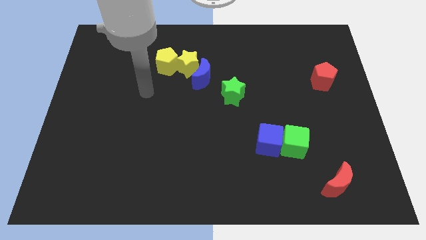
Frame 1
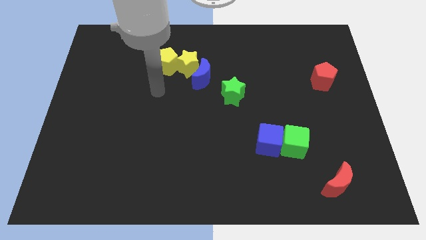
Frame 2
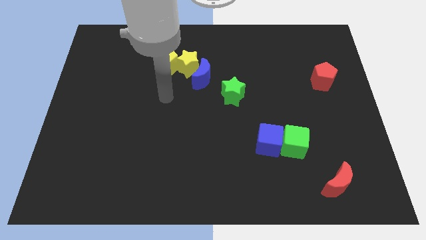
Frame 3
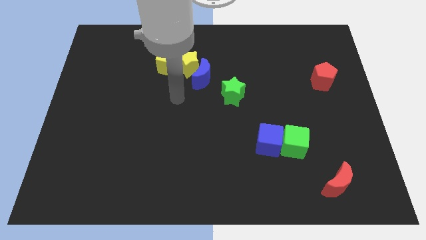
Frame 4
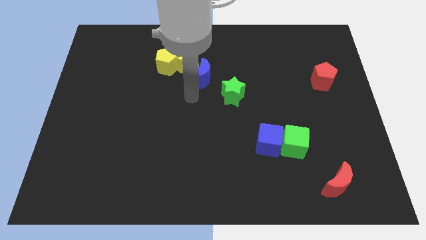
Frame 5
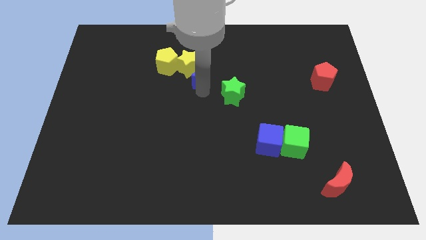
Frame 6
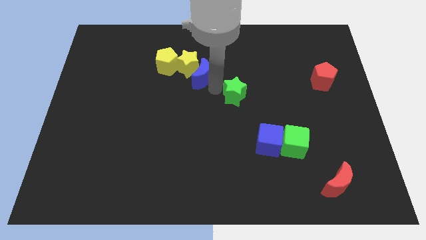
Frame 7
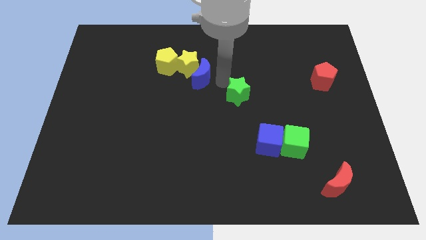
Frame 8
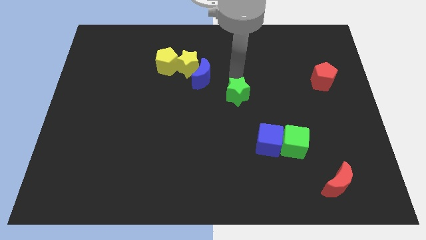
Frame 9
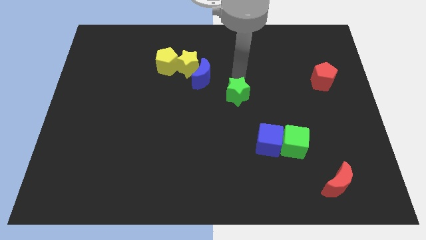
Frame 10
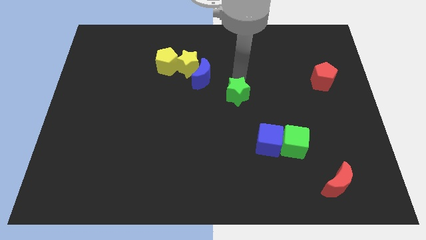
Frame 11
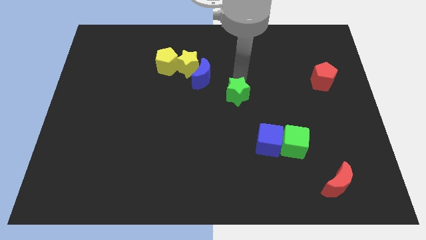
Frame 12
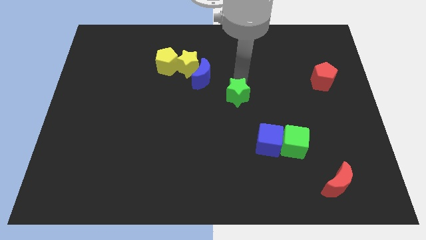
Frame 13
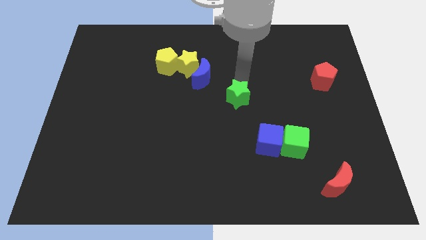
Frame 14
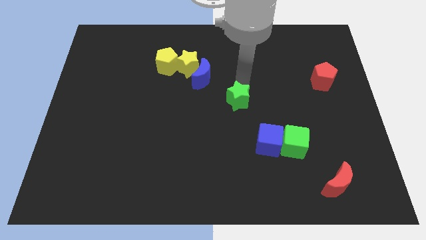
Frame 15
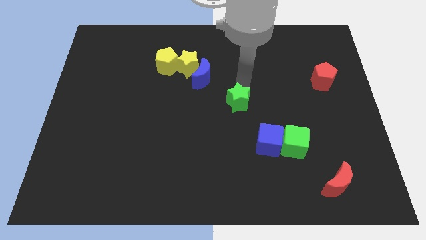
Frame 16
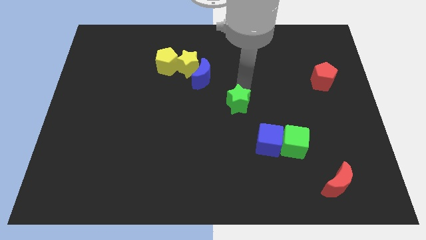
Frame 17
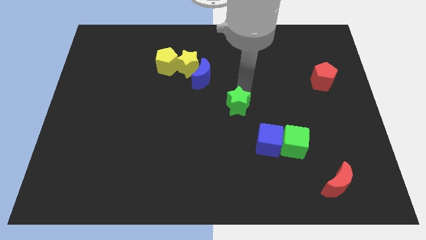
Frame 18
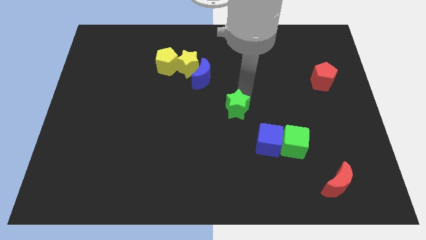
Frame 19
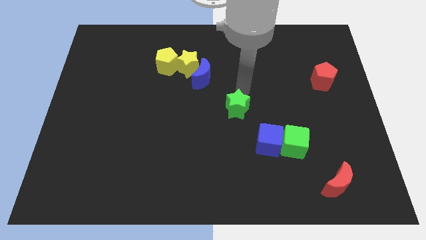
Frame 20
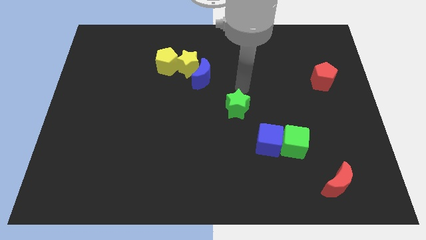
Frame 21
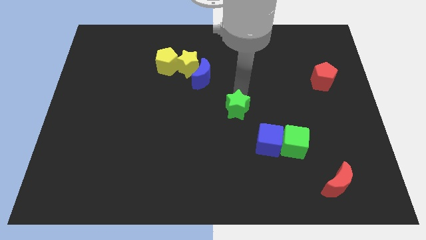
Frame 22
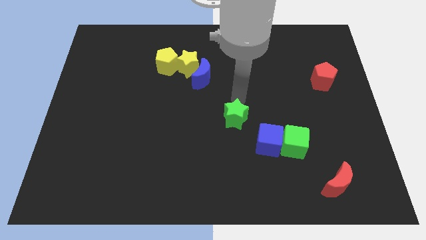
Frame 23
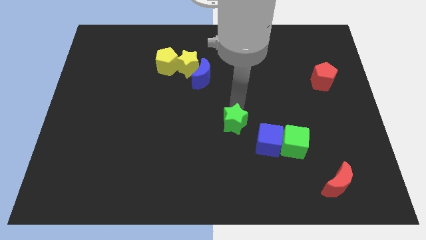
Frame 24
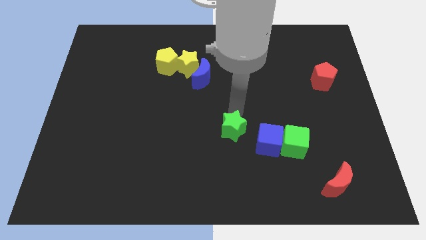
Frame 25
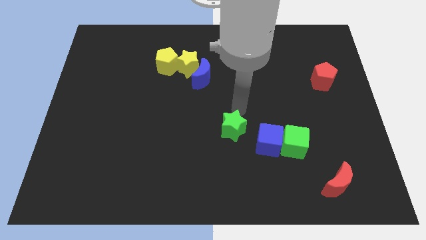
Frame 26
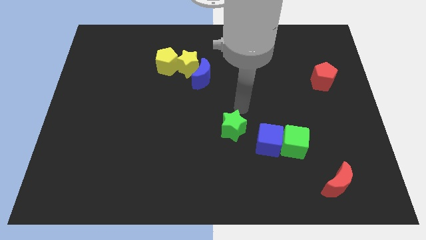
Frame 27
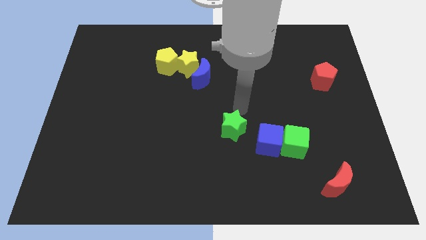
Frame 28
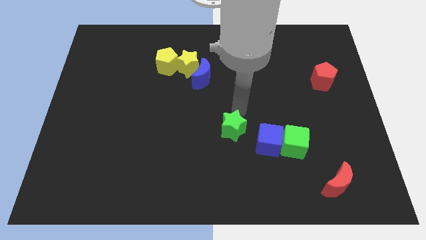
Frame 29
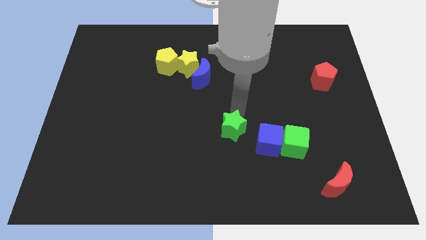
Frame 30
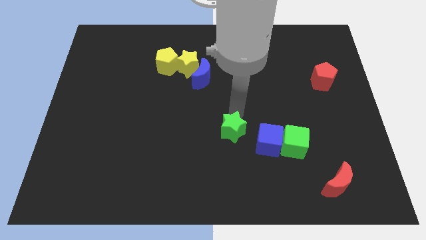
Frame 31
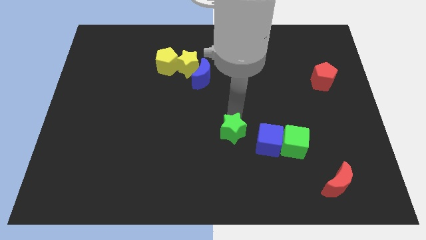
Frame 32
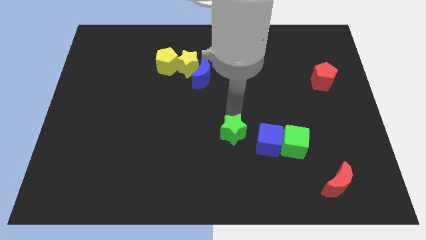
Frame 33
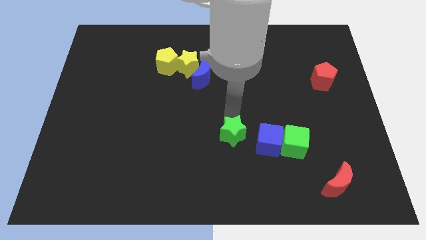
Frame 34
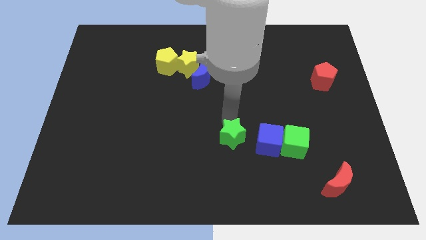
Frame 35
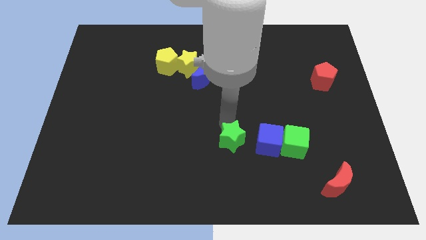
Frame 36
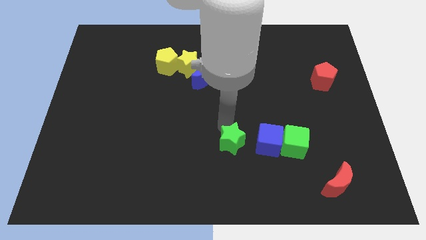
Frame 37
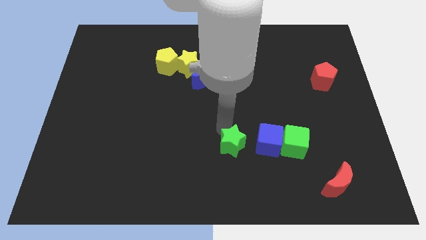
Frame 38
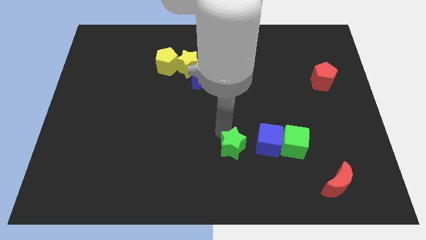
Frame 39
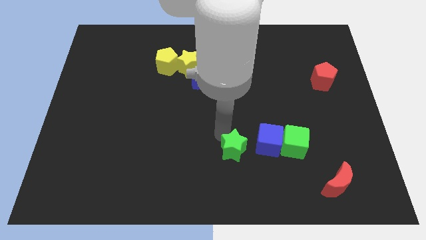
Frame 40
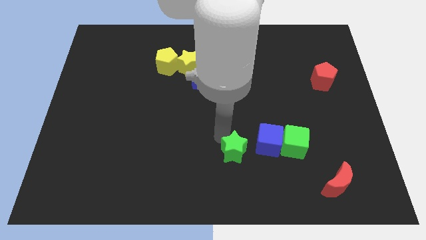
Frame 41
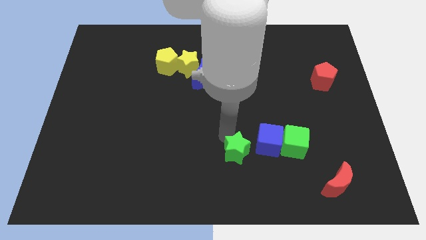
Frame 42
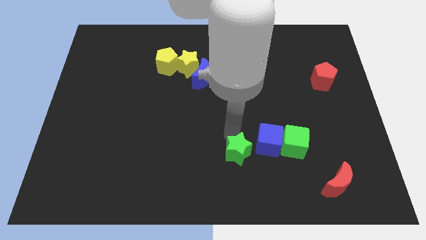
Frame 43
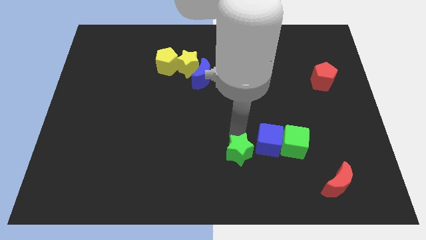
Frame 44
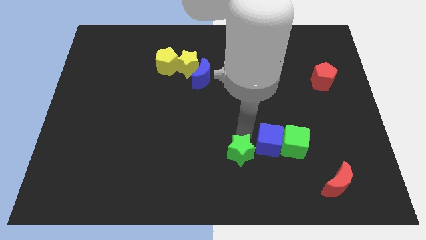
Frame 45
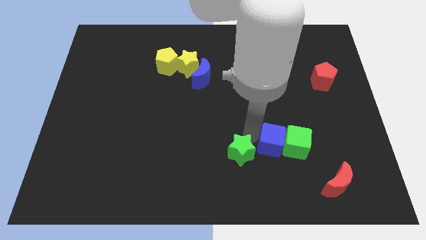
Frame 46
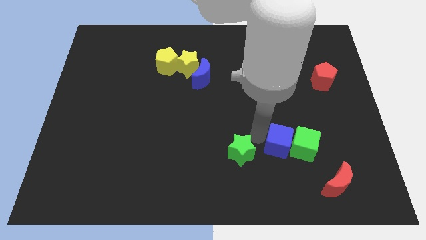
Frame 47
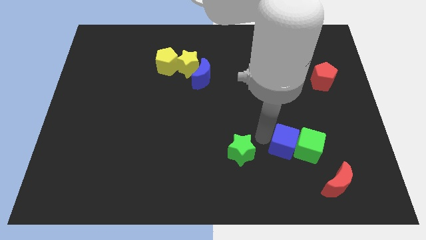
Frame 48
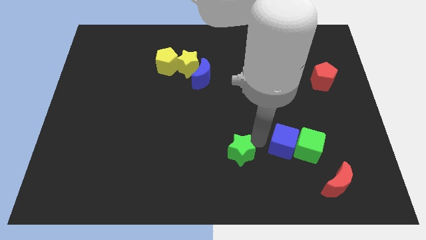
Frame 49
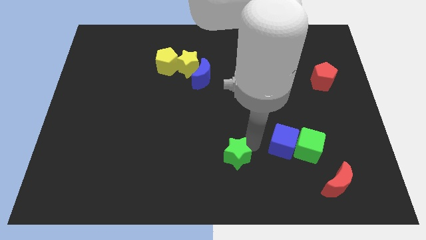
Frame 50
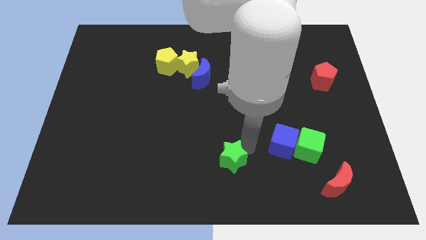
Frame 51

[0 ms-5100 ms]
push the green star to the bottom

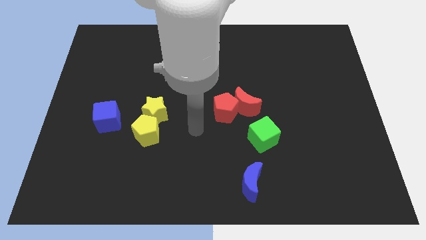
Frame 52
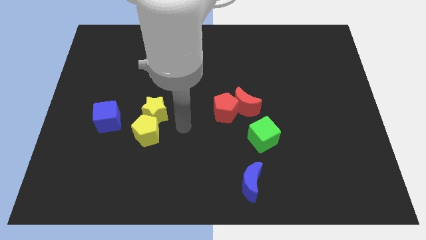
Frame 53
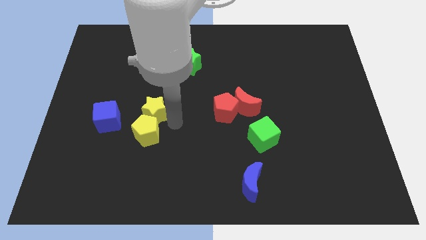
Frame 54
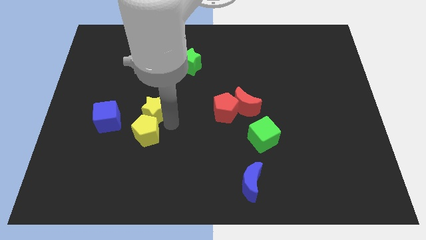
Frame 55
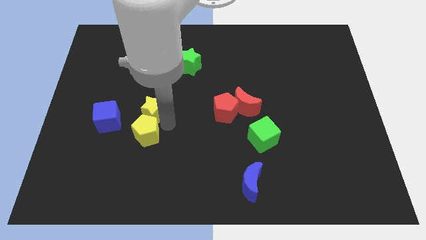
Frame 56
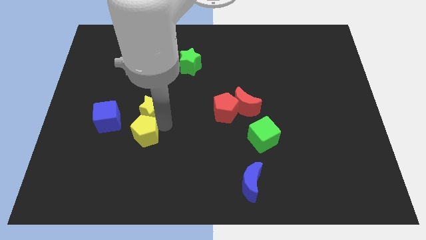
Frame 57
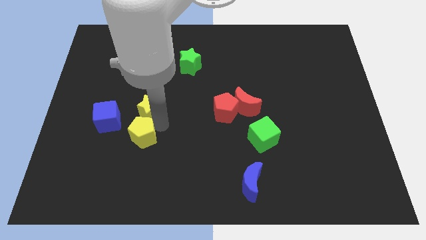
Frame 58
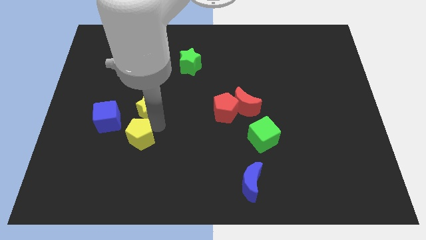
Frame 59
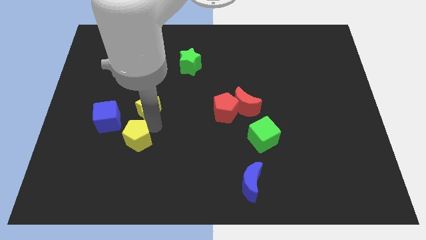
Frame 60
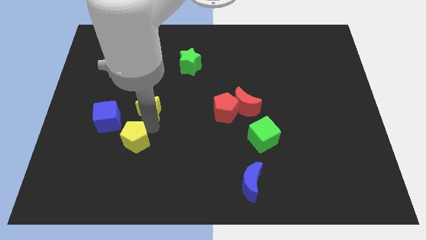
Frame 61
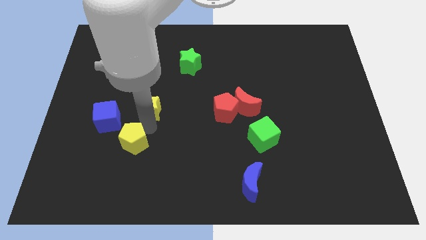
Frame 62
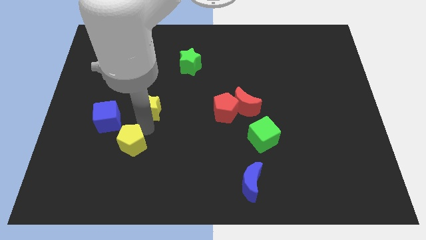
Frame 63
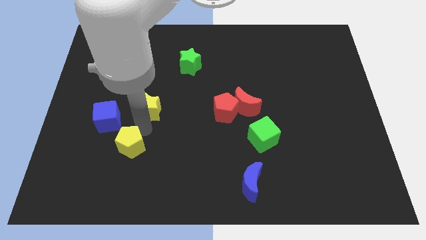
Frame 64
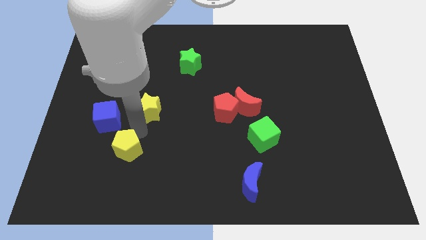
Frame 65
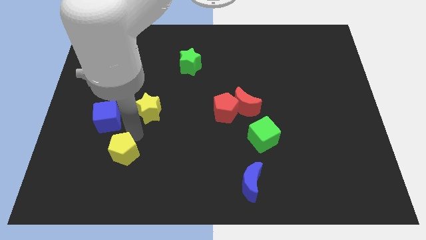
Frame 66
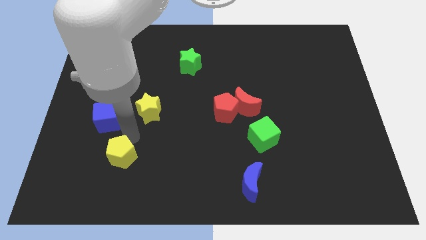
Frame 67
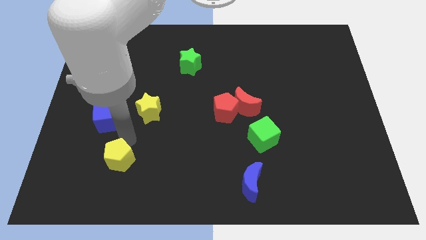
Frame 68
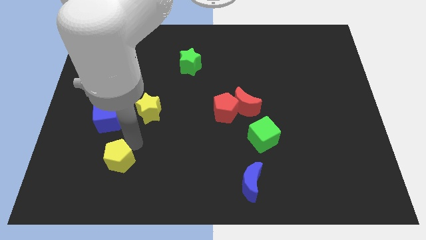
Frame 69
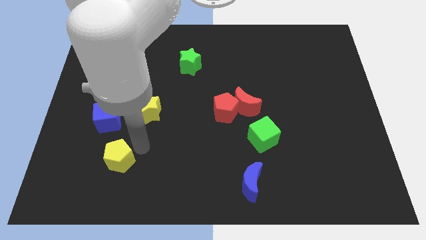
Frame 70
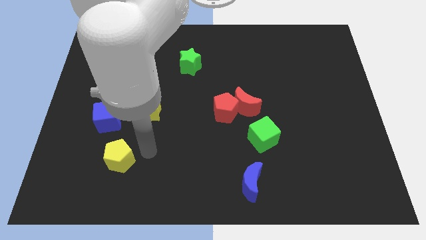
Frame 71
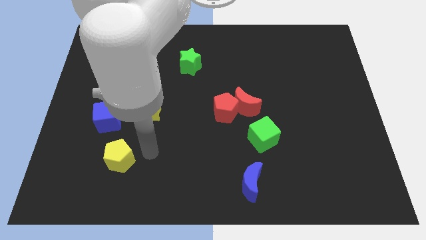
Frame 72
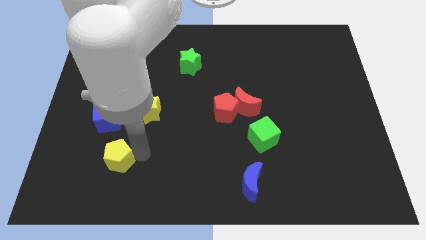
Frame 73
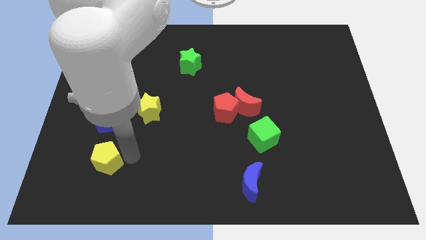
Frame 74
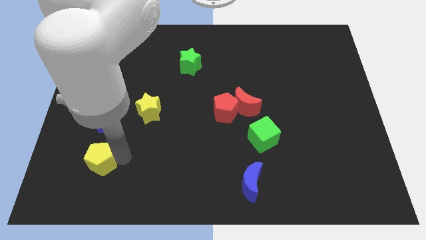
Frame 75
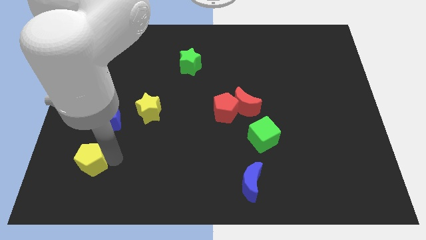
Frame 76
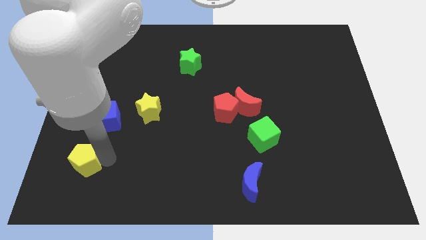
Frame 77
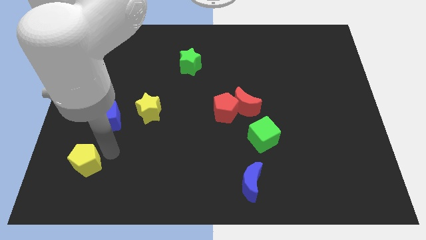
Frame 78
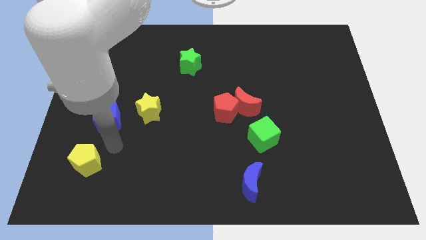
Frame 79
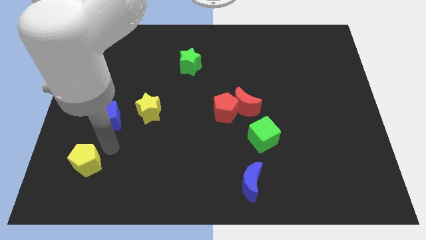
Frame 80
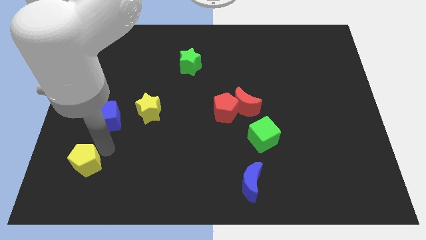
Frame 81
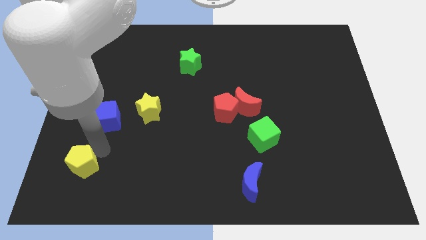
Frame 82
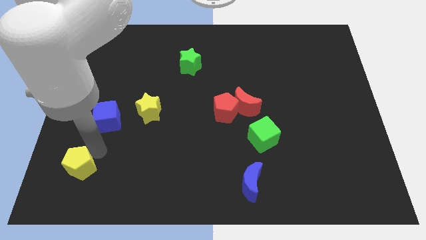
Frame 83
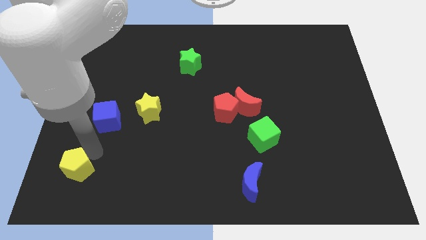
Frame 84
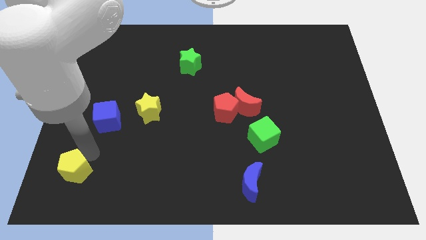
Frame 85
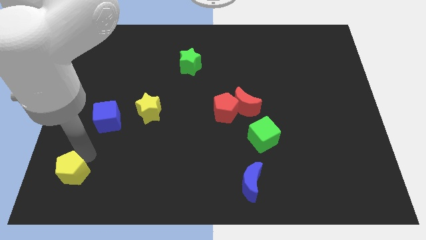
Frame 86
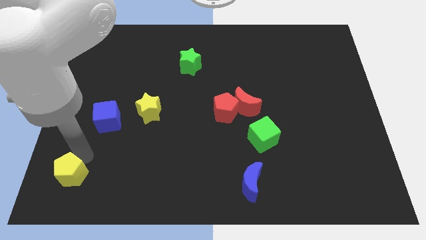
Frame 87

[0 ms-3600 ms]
slide the yellow pentagon to the bottom left
